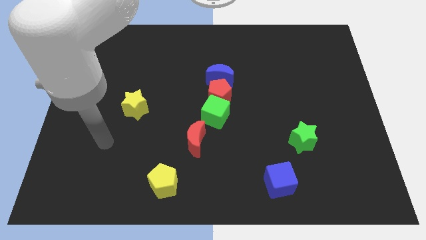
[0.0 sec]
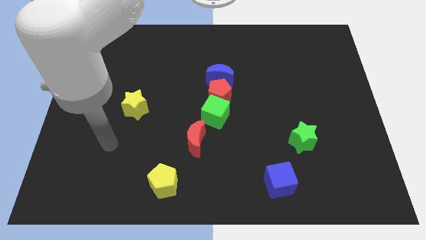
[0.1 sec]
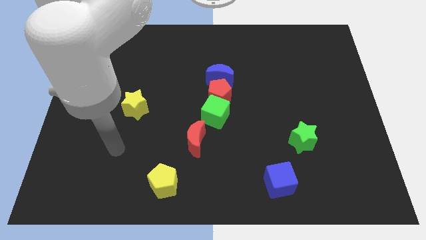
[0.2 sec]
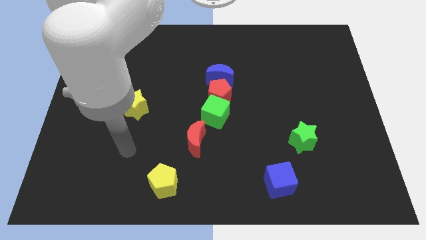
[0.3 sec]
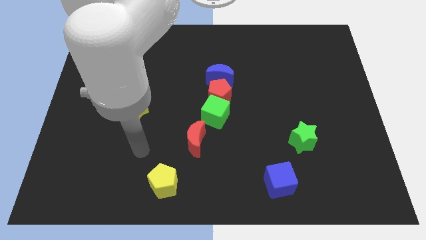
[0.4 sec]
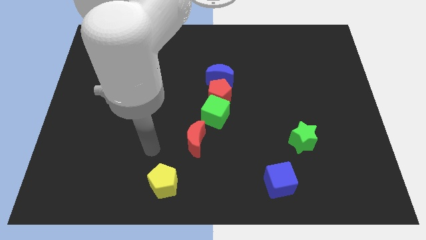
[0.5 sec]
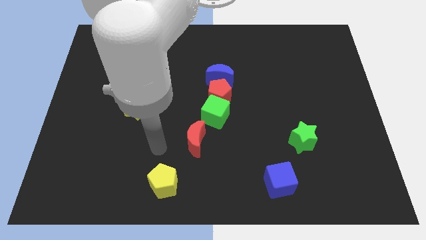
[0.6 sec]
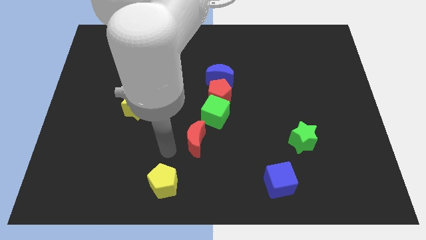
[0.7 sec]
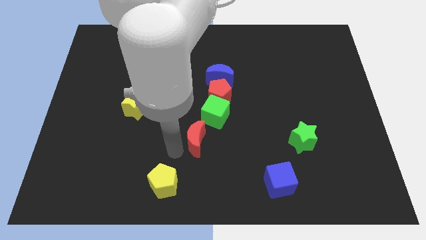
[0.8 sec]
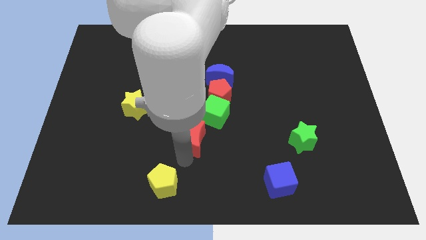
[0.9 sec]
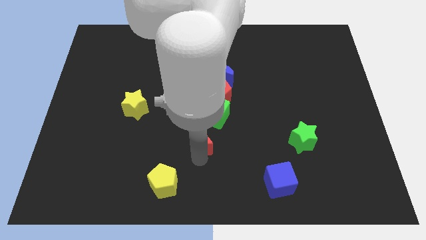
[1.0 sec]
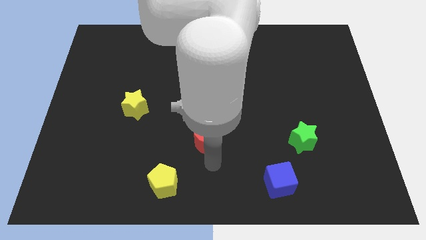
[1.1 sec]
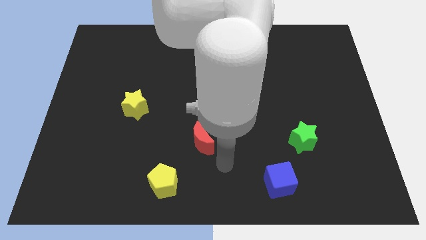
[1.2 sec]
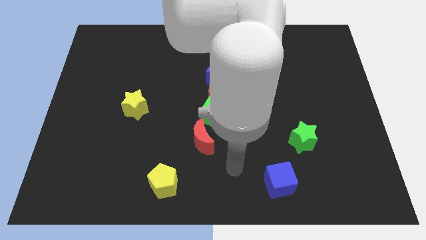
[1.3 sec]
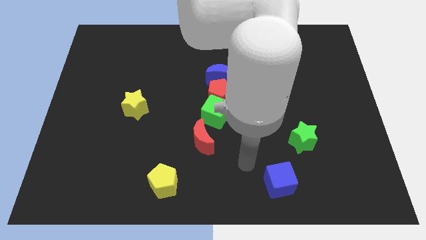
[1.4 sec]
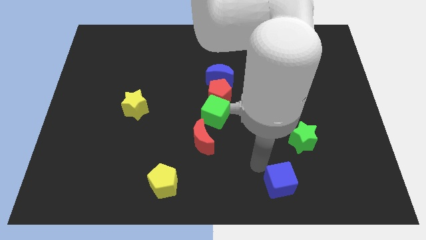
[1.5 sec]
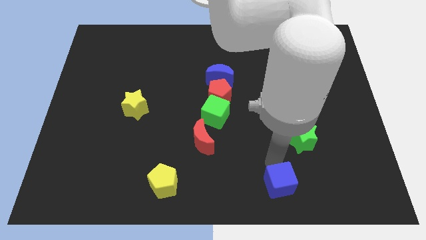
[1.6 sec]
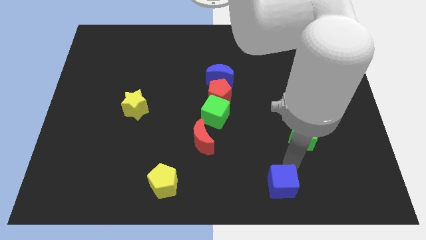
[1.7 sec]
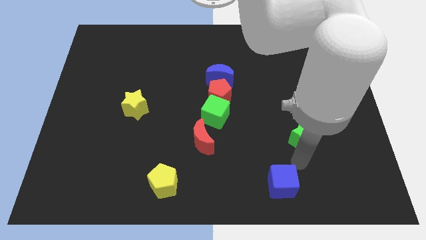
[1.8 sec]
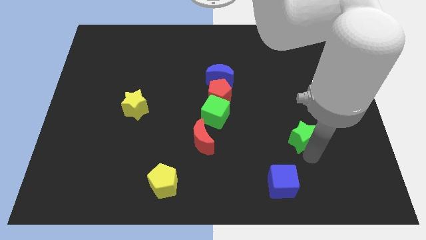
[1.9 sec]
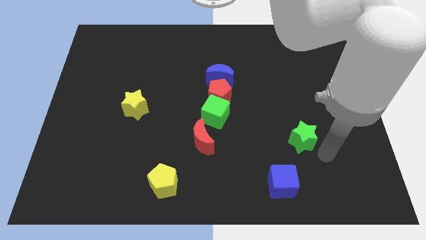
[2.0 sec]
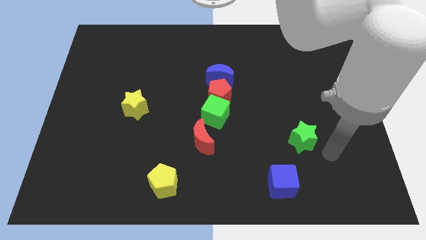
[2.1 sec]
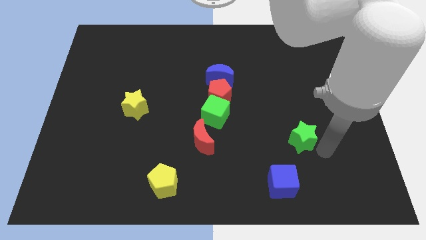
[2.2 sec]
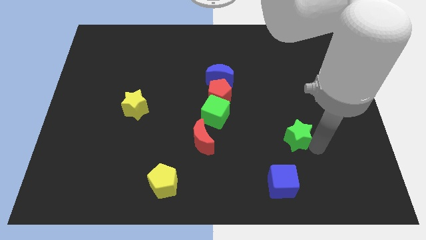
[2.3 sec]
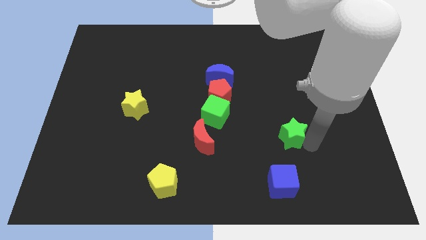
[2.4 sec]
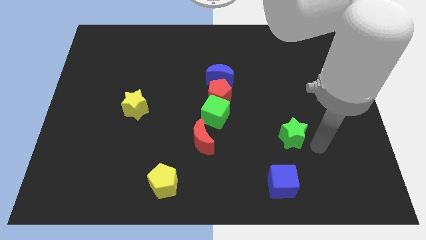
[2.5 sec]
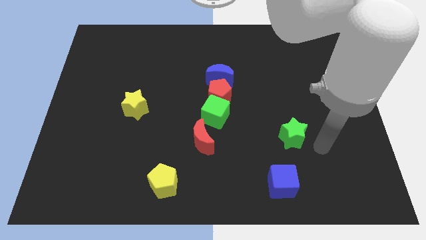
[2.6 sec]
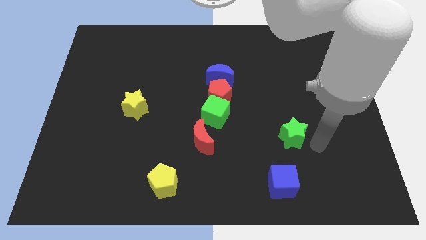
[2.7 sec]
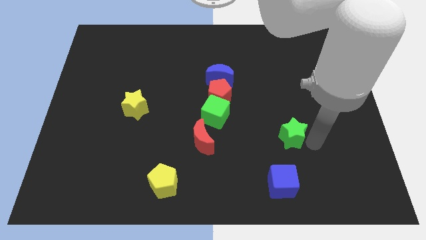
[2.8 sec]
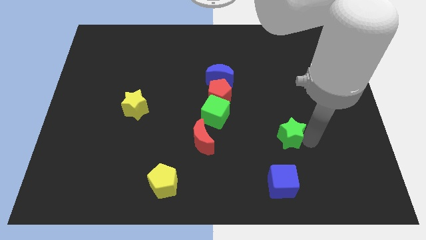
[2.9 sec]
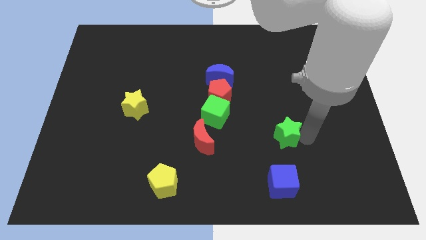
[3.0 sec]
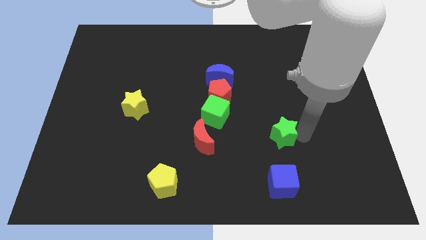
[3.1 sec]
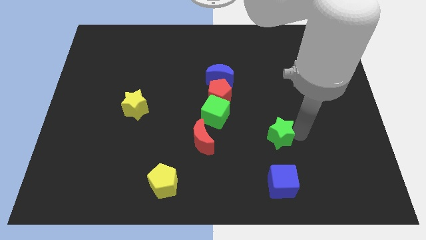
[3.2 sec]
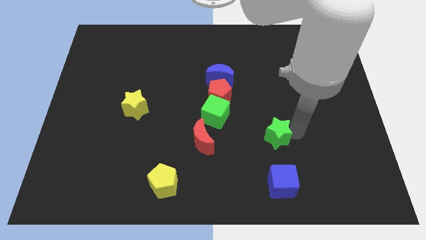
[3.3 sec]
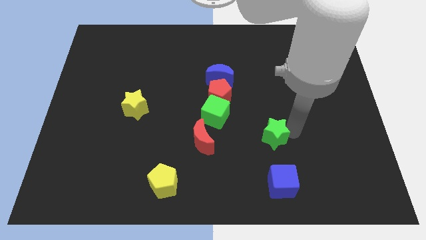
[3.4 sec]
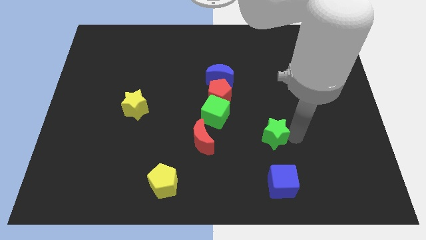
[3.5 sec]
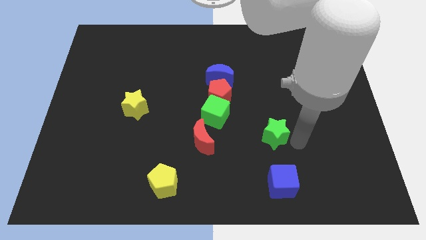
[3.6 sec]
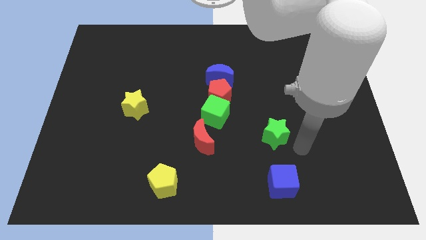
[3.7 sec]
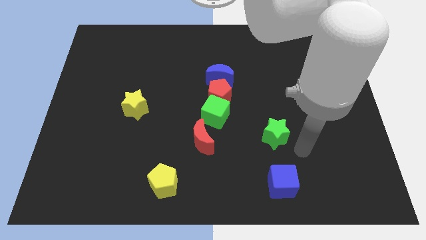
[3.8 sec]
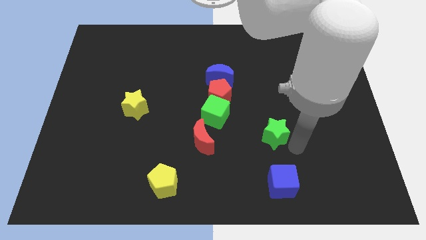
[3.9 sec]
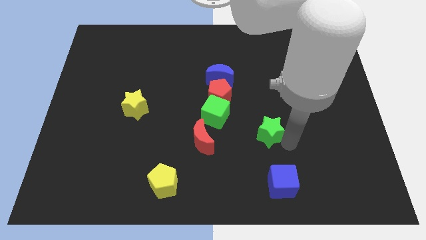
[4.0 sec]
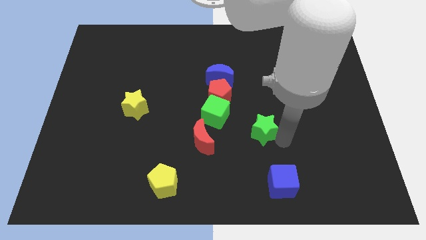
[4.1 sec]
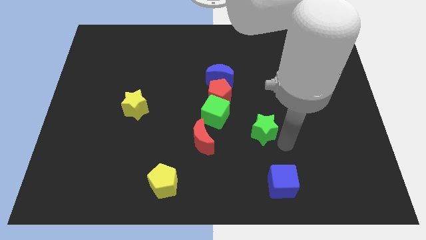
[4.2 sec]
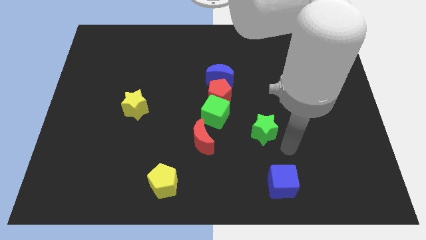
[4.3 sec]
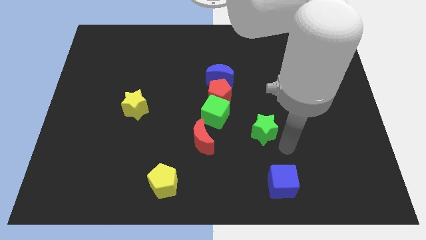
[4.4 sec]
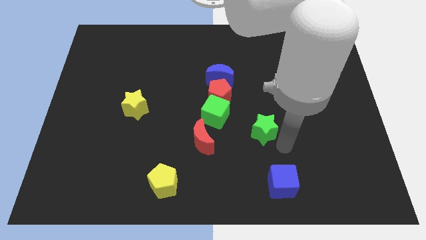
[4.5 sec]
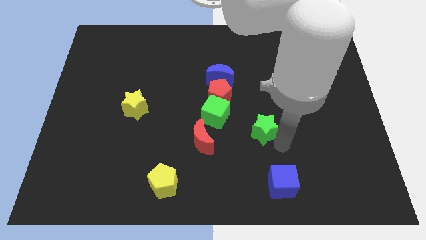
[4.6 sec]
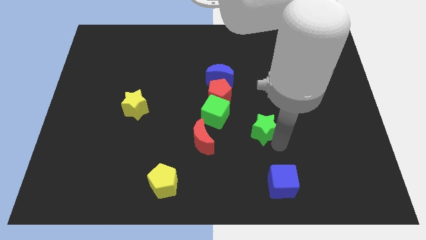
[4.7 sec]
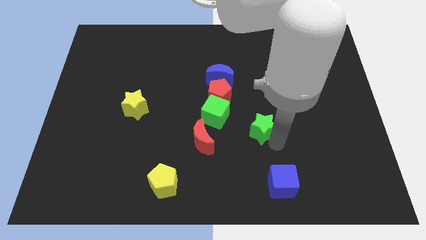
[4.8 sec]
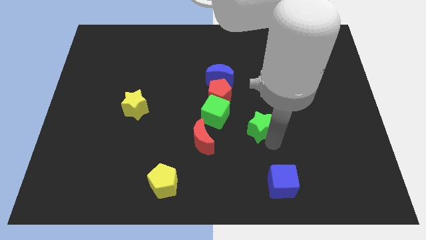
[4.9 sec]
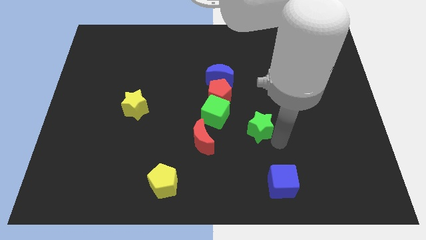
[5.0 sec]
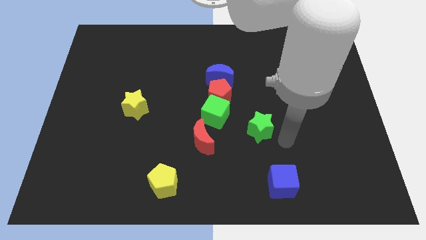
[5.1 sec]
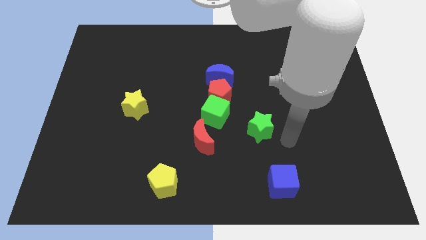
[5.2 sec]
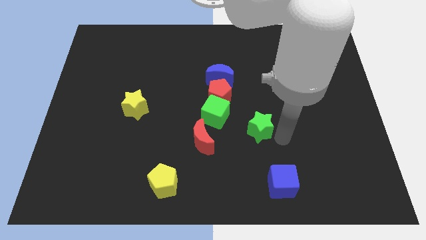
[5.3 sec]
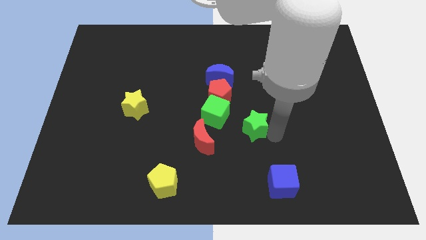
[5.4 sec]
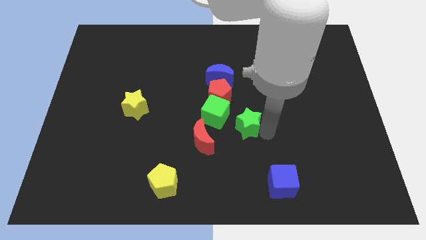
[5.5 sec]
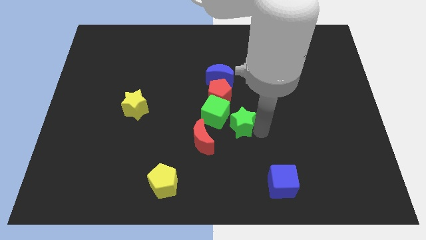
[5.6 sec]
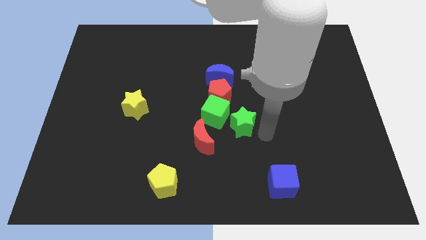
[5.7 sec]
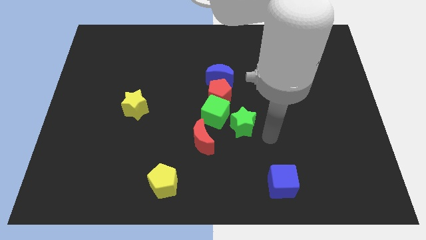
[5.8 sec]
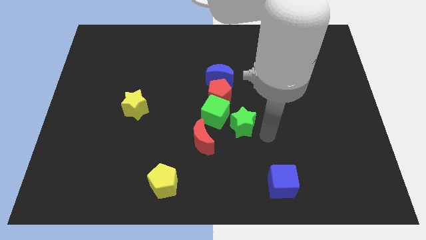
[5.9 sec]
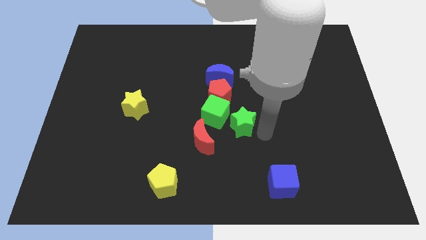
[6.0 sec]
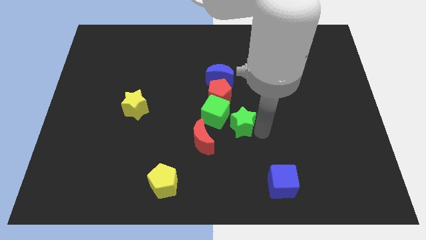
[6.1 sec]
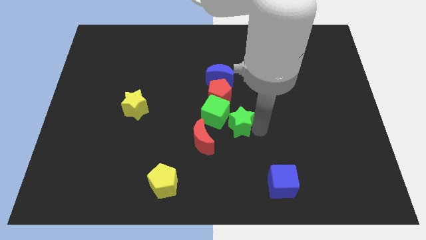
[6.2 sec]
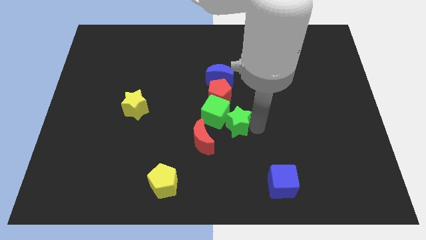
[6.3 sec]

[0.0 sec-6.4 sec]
move the green star towards the green cube

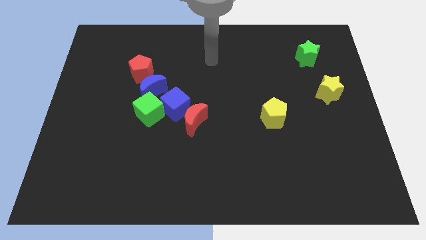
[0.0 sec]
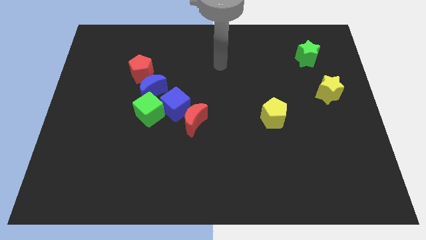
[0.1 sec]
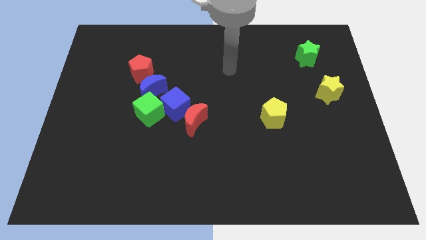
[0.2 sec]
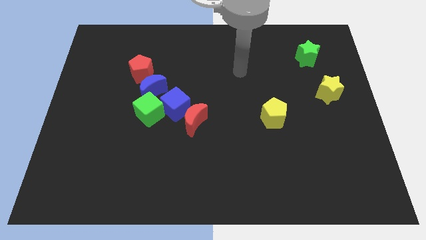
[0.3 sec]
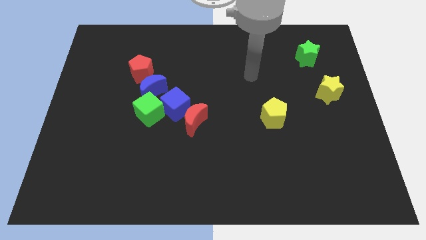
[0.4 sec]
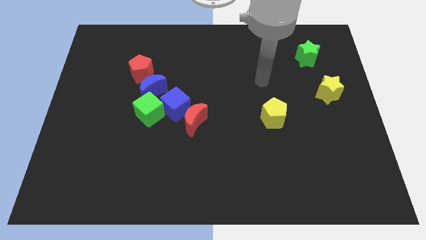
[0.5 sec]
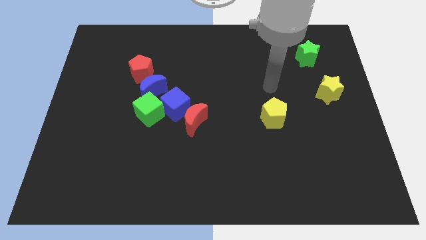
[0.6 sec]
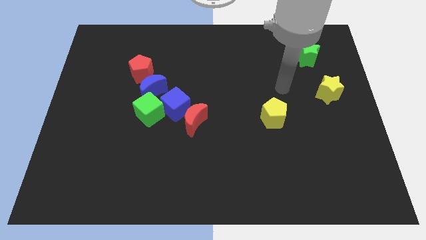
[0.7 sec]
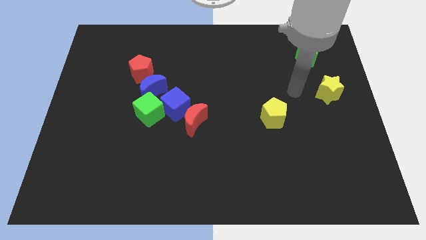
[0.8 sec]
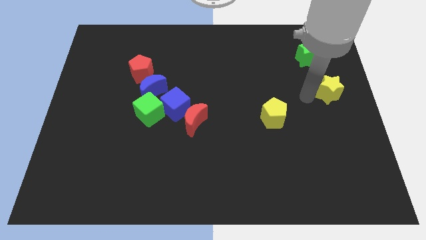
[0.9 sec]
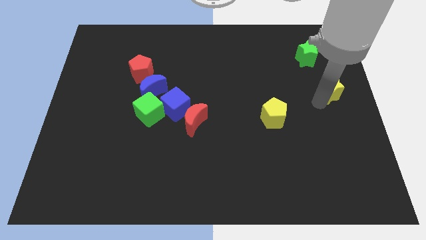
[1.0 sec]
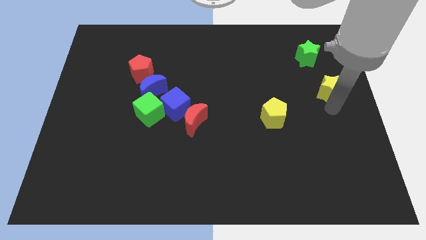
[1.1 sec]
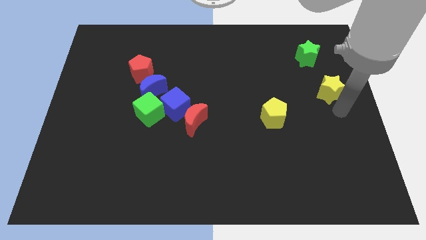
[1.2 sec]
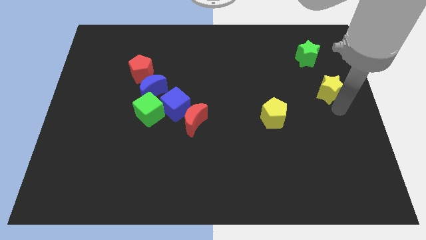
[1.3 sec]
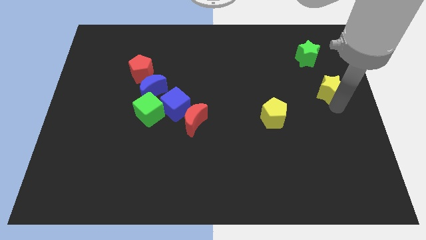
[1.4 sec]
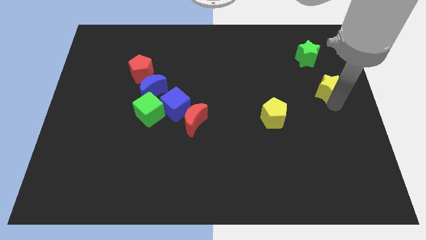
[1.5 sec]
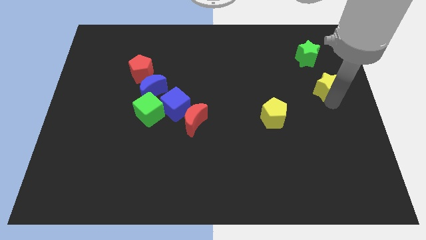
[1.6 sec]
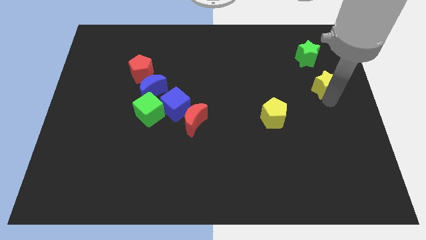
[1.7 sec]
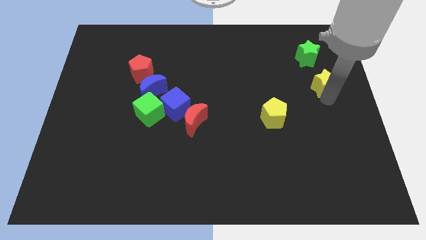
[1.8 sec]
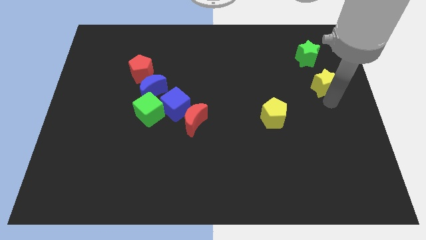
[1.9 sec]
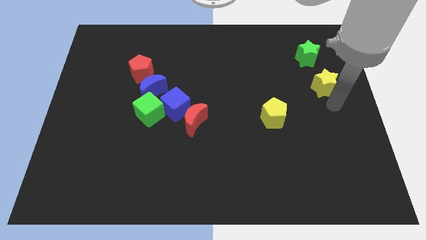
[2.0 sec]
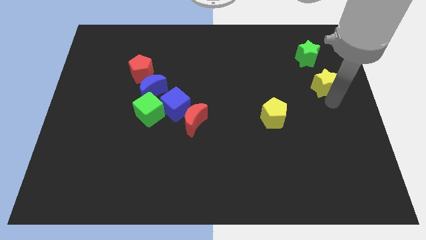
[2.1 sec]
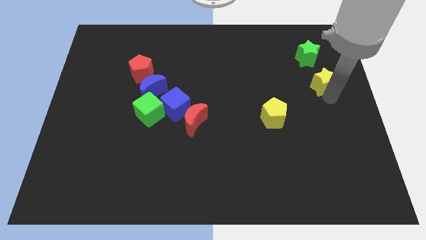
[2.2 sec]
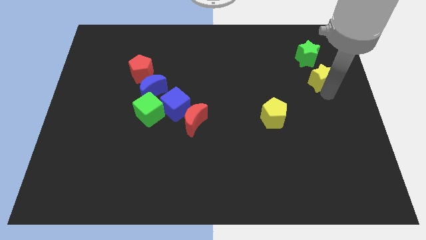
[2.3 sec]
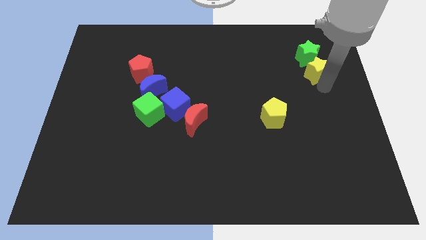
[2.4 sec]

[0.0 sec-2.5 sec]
put the yellow star to the green star
